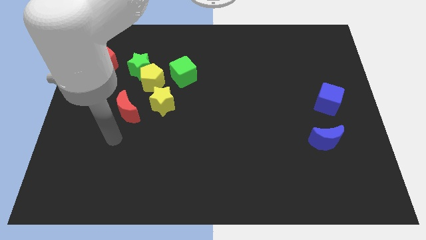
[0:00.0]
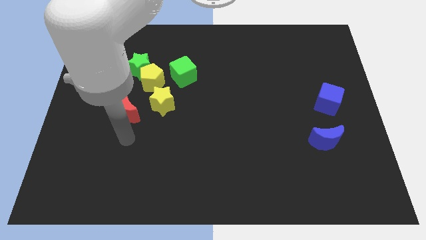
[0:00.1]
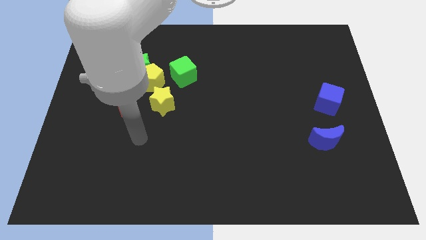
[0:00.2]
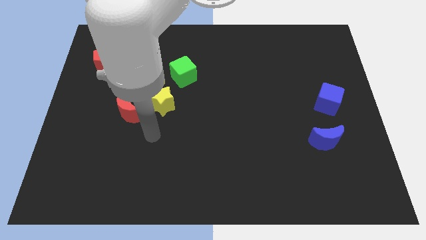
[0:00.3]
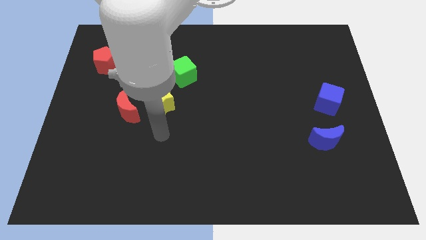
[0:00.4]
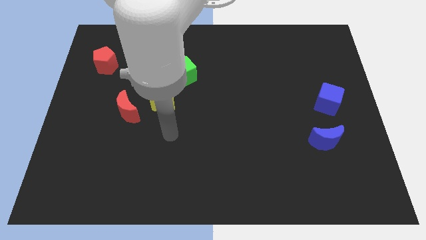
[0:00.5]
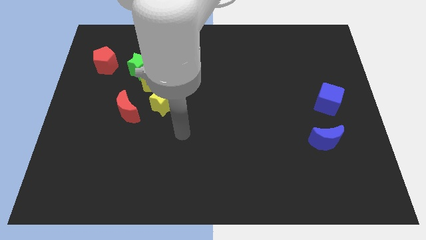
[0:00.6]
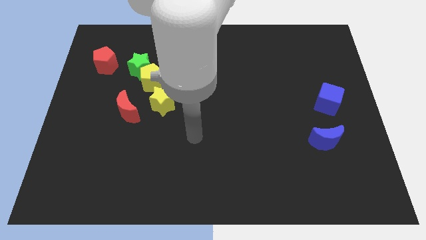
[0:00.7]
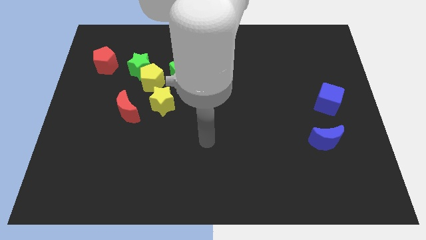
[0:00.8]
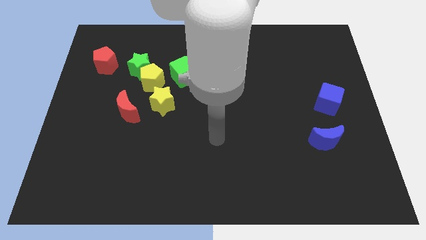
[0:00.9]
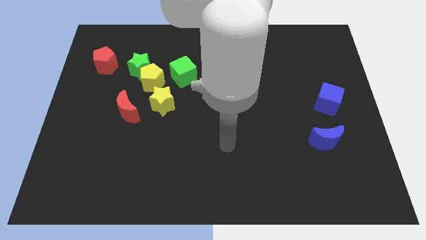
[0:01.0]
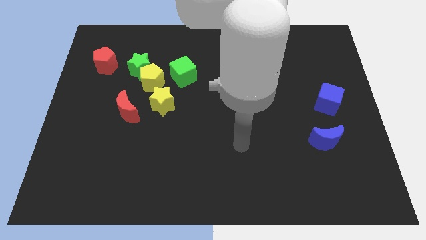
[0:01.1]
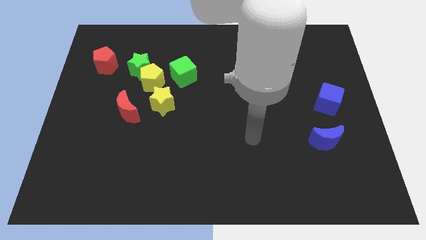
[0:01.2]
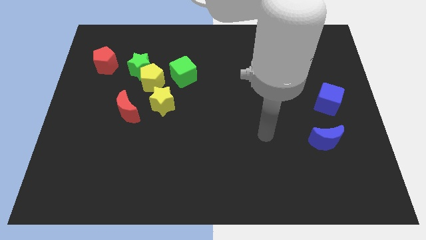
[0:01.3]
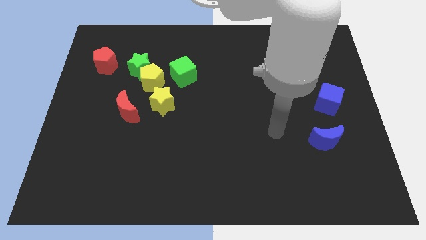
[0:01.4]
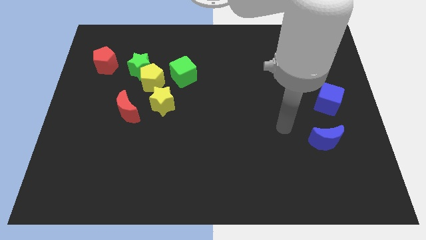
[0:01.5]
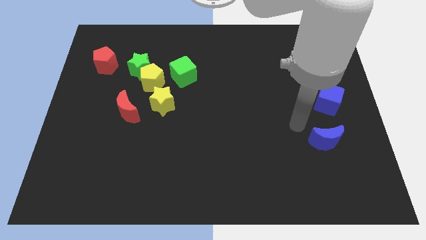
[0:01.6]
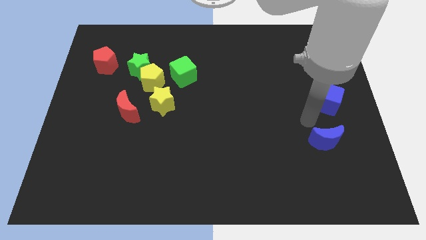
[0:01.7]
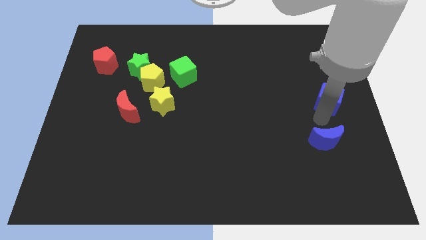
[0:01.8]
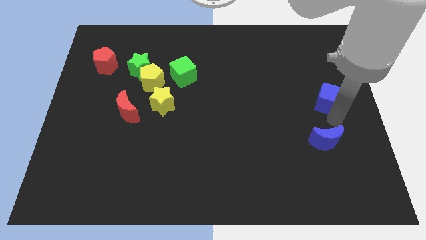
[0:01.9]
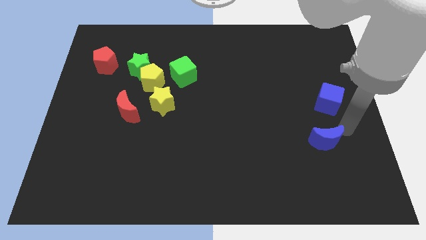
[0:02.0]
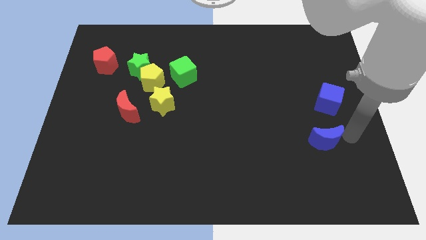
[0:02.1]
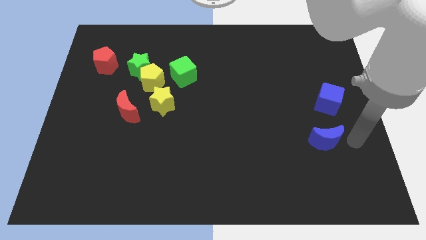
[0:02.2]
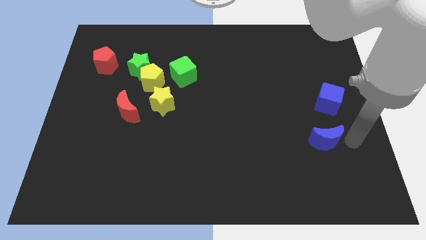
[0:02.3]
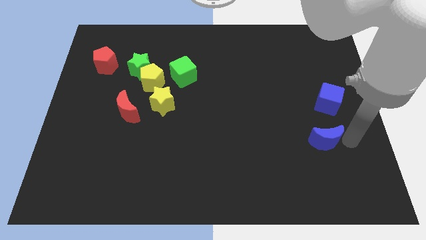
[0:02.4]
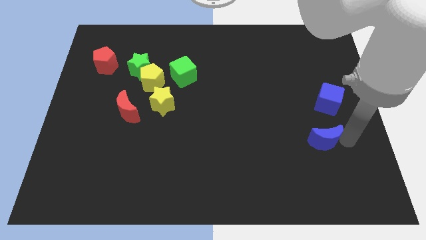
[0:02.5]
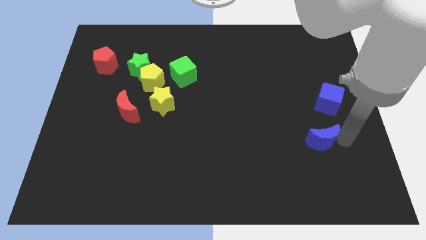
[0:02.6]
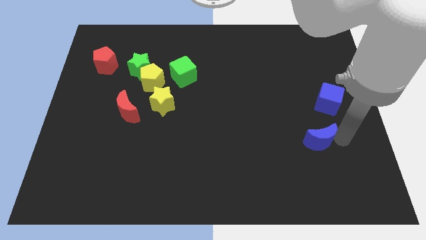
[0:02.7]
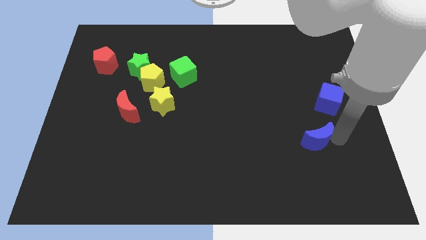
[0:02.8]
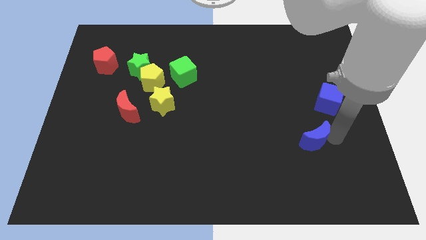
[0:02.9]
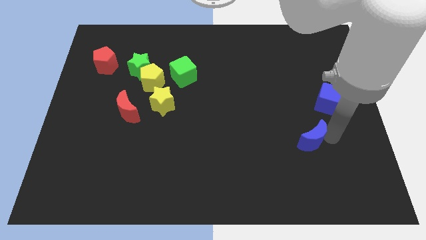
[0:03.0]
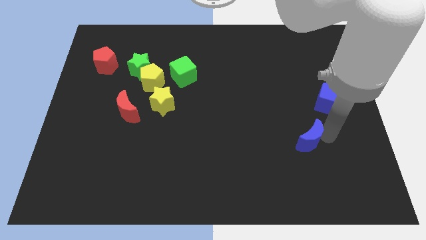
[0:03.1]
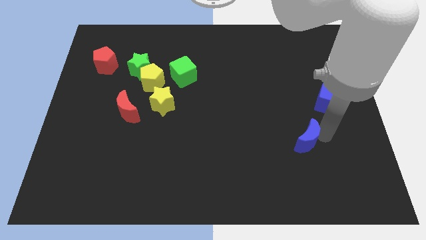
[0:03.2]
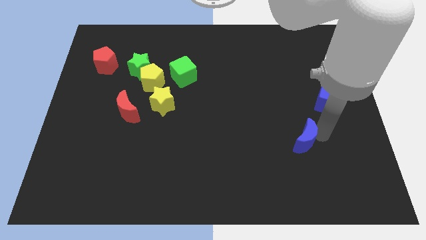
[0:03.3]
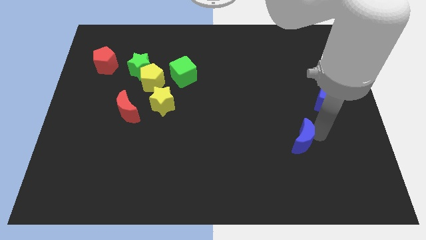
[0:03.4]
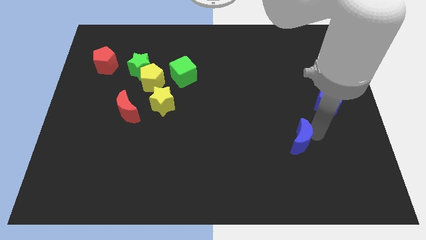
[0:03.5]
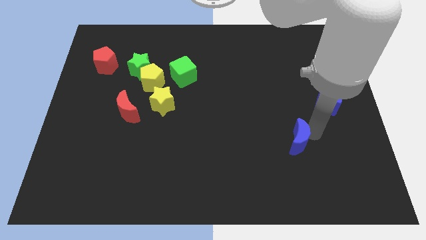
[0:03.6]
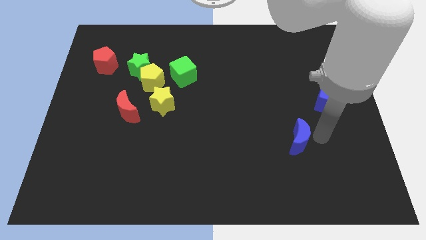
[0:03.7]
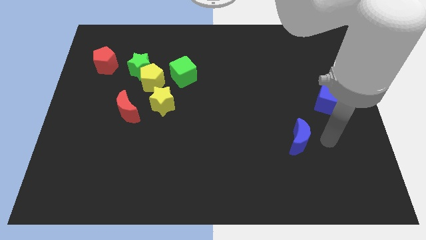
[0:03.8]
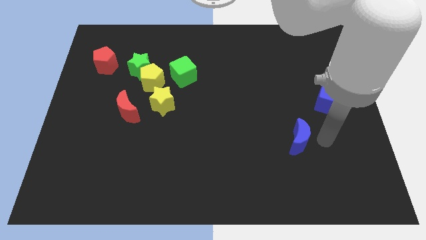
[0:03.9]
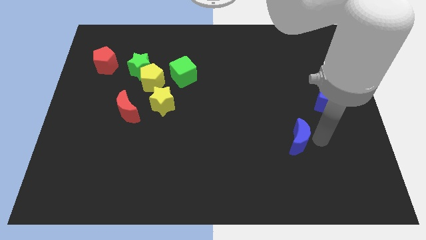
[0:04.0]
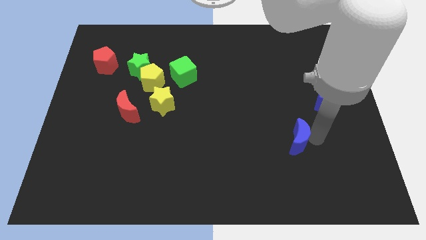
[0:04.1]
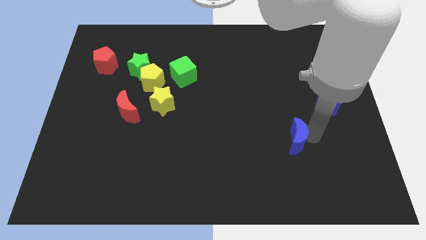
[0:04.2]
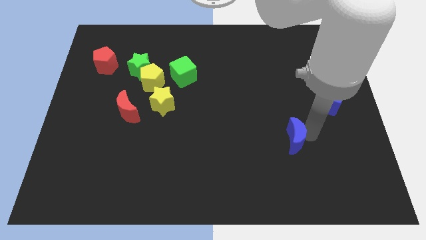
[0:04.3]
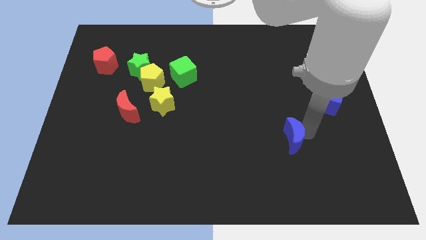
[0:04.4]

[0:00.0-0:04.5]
slightly move the blue moon left

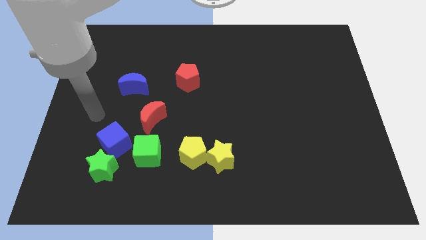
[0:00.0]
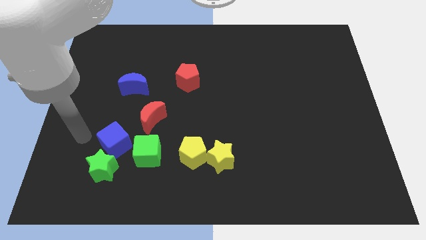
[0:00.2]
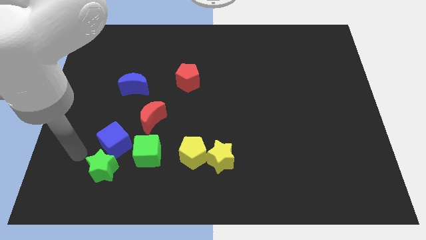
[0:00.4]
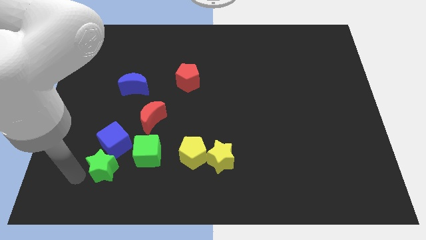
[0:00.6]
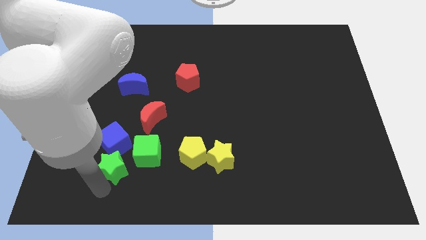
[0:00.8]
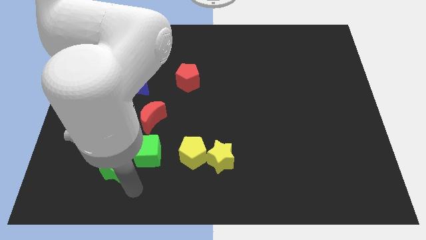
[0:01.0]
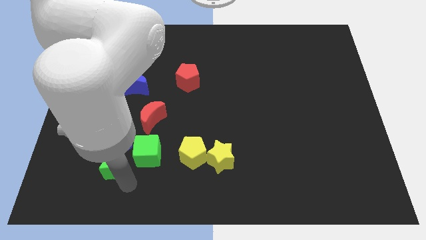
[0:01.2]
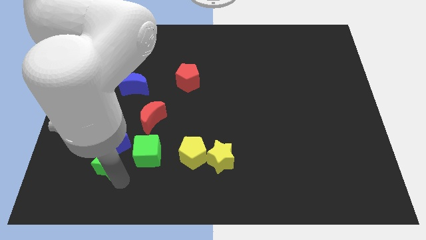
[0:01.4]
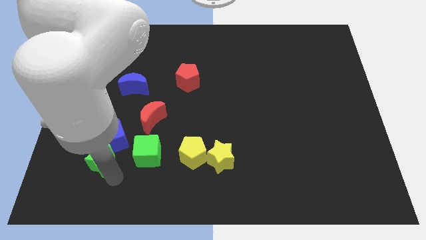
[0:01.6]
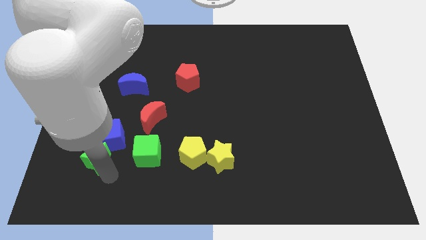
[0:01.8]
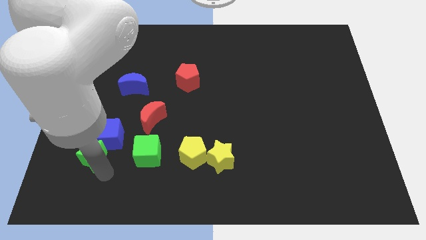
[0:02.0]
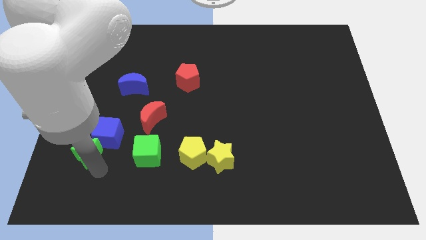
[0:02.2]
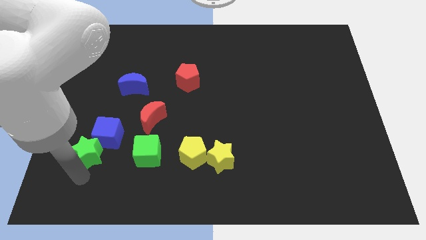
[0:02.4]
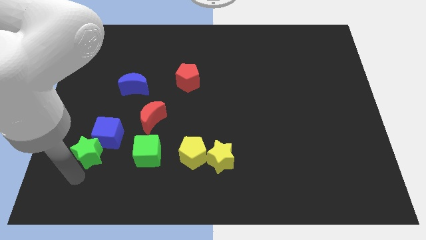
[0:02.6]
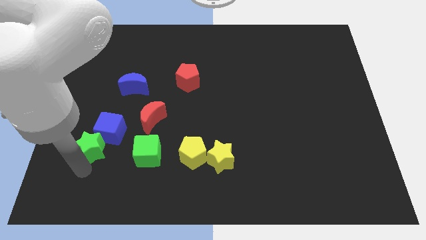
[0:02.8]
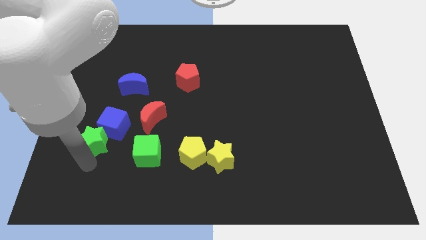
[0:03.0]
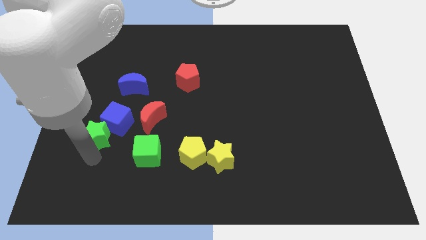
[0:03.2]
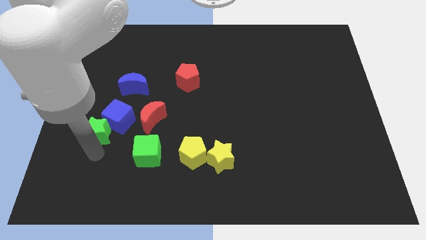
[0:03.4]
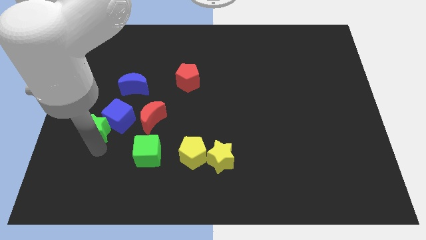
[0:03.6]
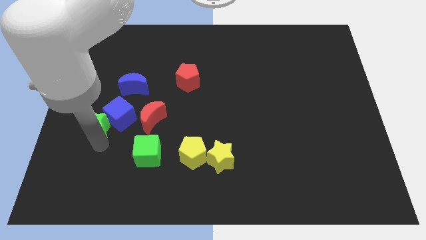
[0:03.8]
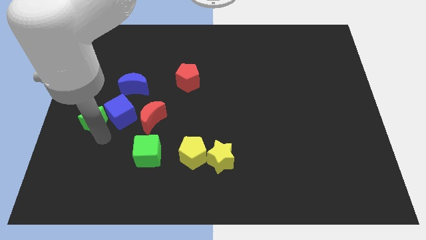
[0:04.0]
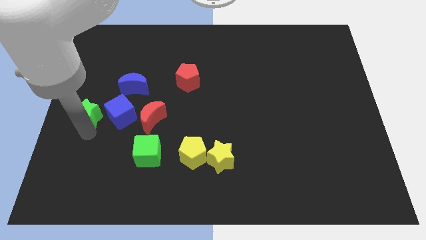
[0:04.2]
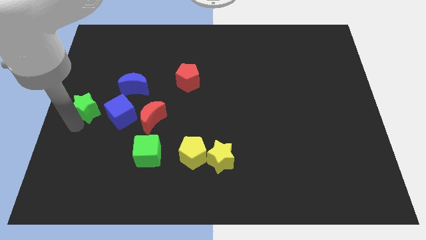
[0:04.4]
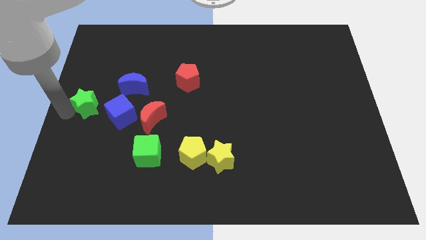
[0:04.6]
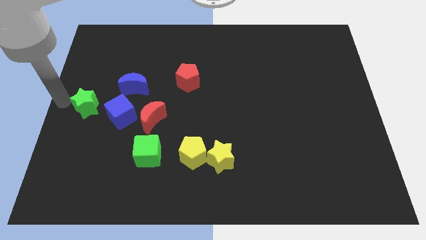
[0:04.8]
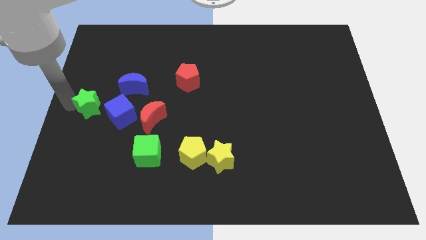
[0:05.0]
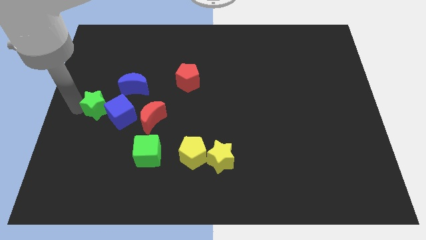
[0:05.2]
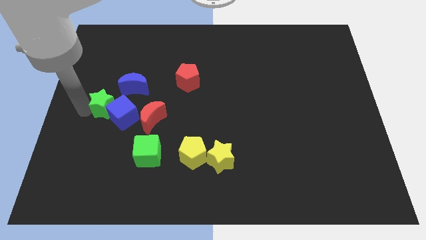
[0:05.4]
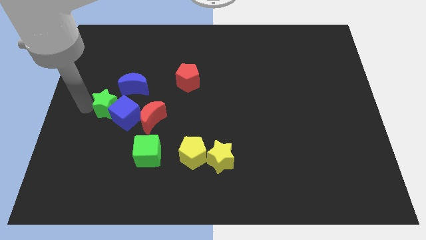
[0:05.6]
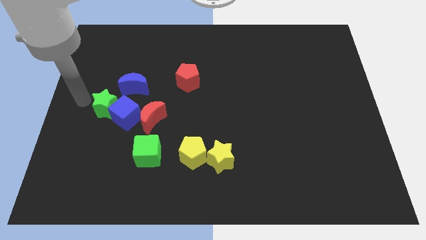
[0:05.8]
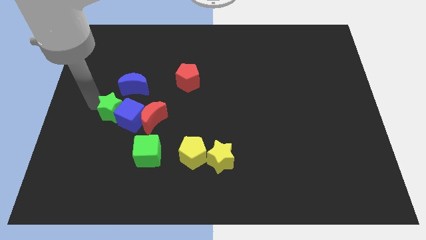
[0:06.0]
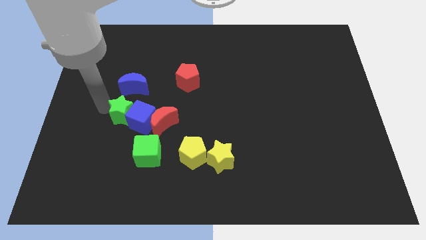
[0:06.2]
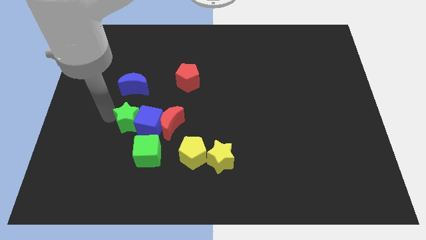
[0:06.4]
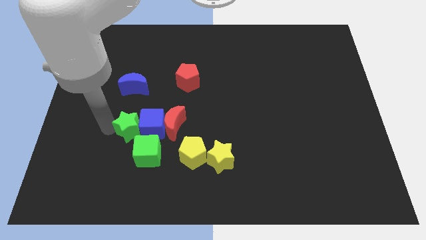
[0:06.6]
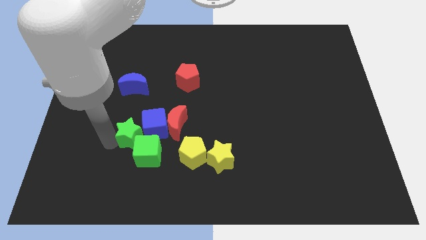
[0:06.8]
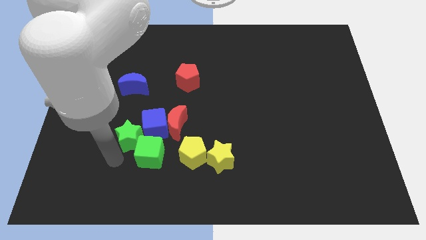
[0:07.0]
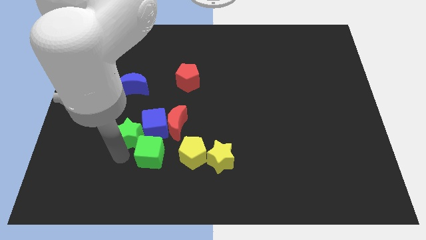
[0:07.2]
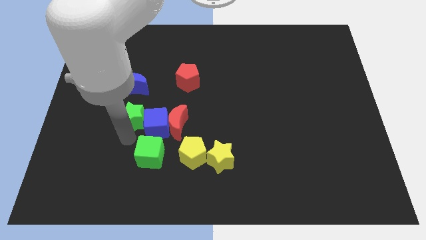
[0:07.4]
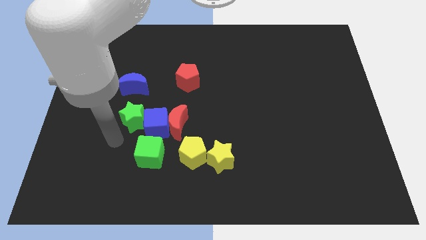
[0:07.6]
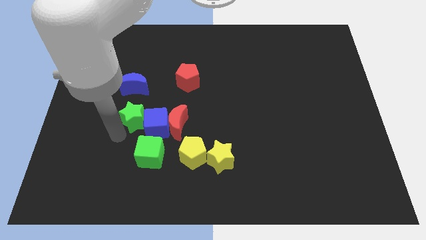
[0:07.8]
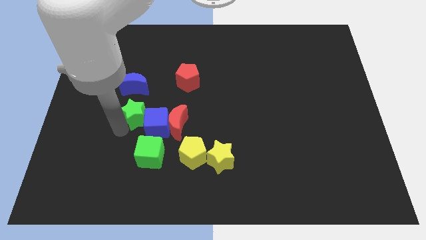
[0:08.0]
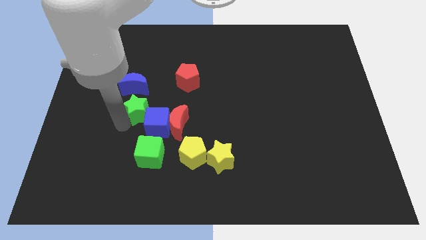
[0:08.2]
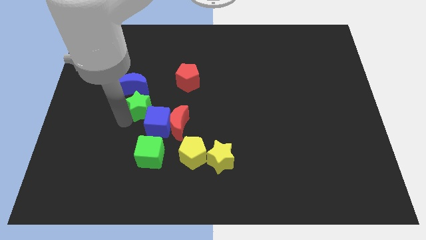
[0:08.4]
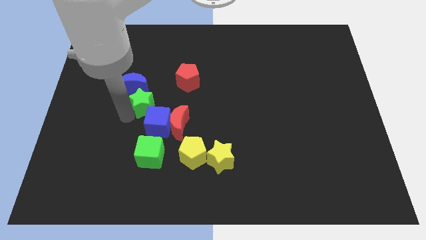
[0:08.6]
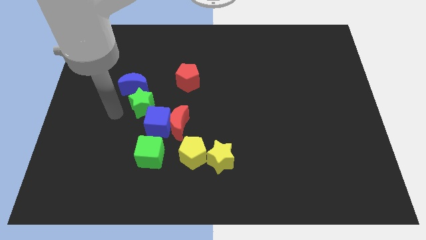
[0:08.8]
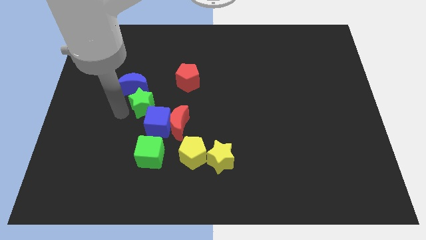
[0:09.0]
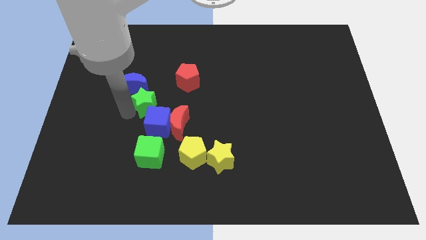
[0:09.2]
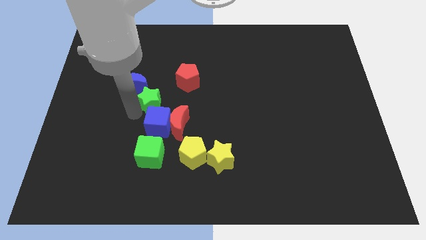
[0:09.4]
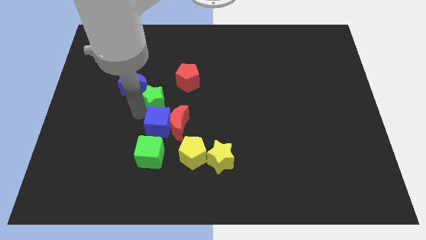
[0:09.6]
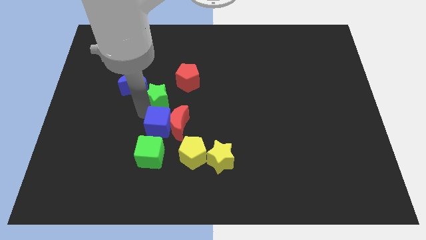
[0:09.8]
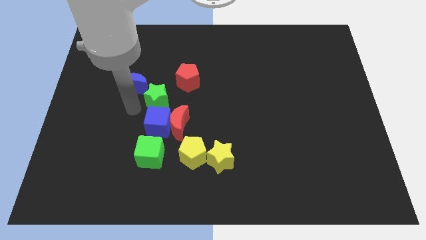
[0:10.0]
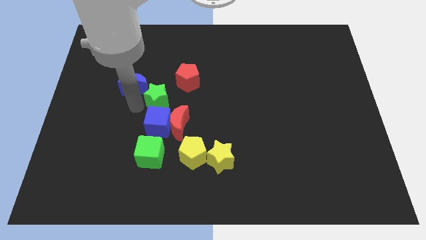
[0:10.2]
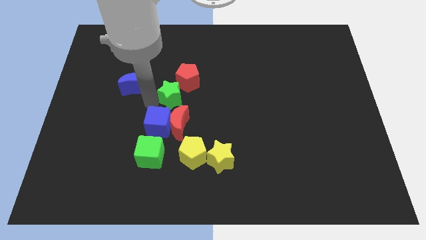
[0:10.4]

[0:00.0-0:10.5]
slide the green star upwards and right diagonally
